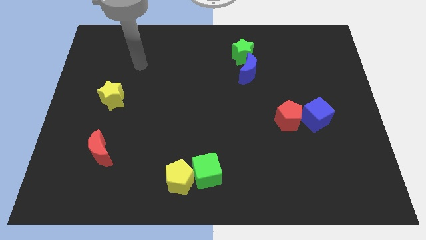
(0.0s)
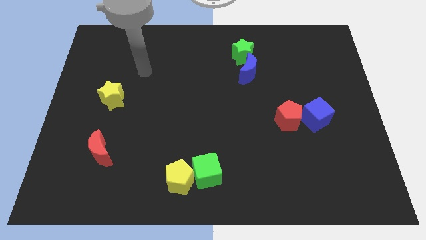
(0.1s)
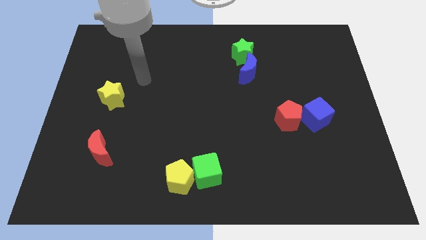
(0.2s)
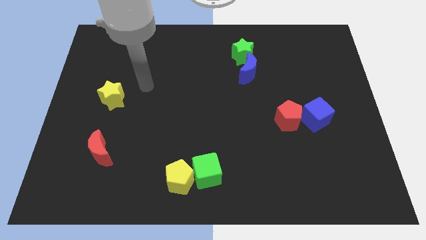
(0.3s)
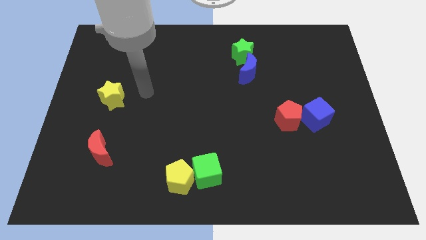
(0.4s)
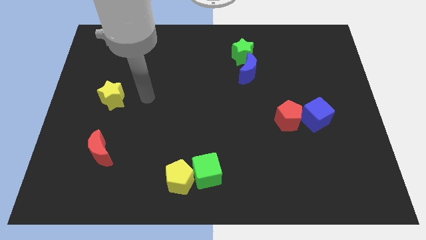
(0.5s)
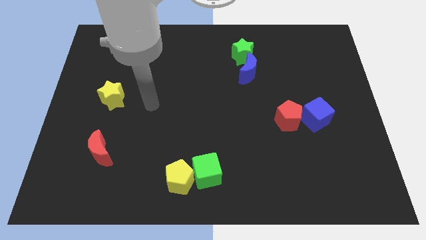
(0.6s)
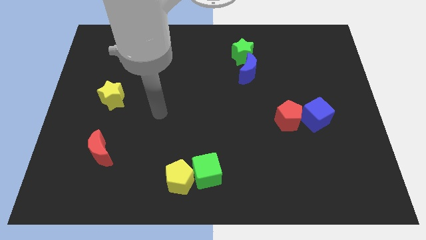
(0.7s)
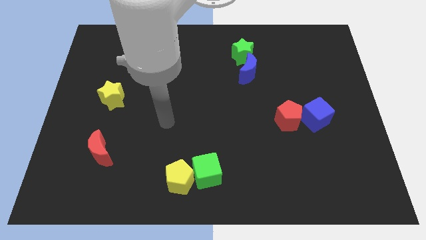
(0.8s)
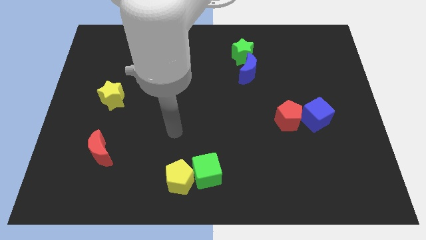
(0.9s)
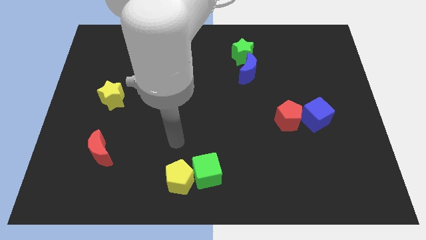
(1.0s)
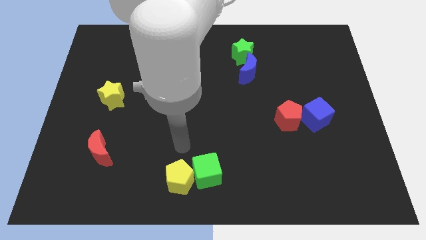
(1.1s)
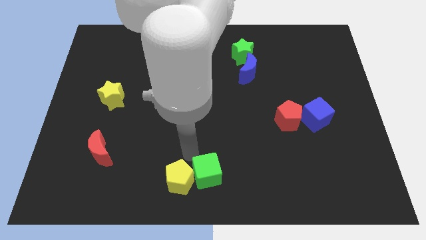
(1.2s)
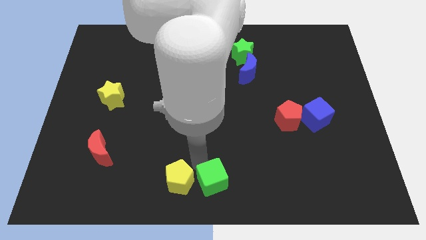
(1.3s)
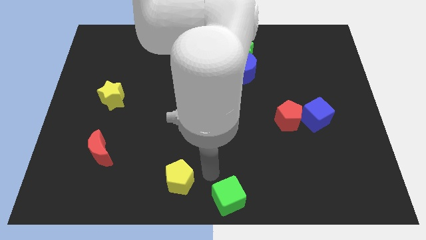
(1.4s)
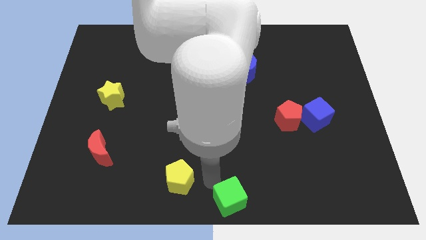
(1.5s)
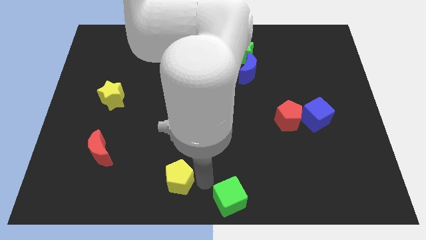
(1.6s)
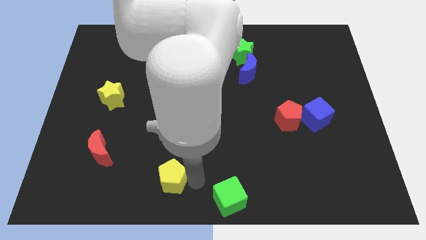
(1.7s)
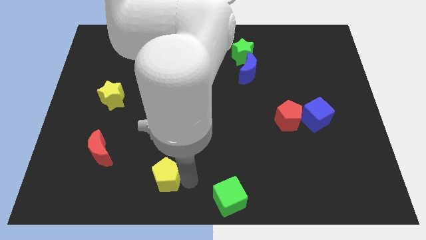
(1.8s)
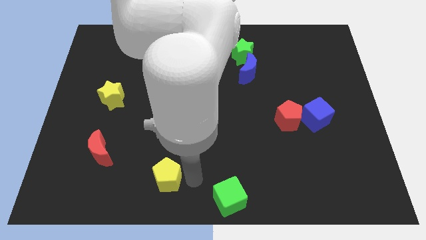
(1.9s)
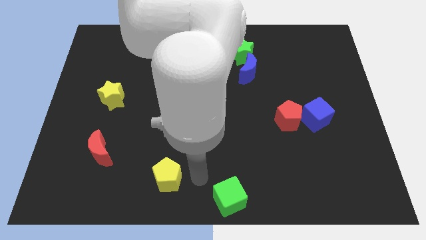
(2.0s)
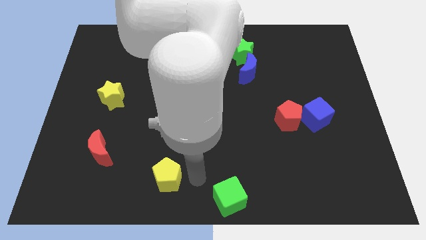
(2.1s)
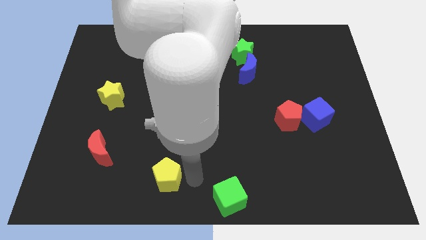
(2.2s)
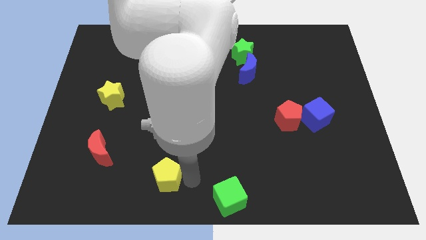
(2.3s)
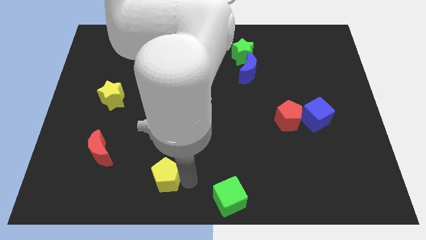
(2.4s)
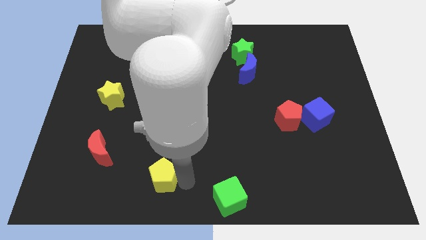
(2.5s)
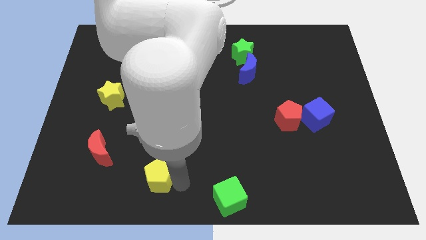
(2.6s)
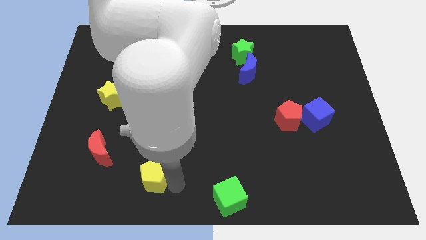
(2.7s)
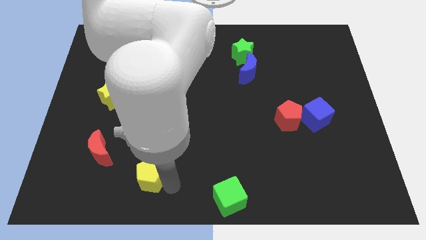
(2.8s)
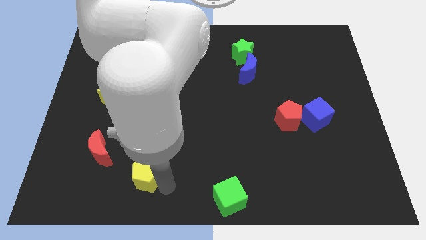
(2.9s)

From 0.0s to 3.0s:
slide the yellow pentagon to the left a little

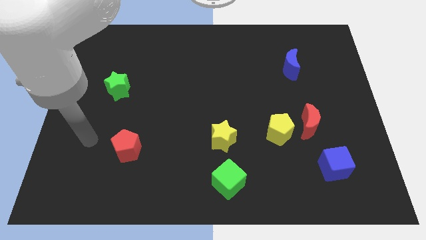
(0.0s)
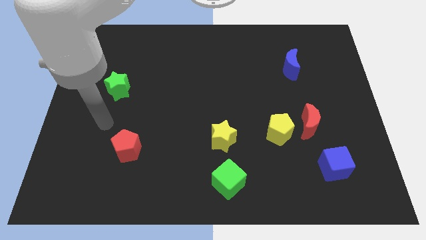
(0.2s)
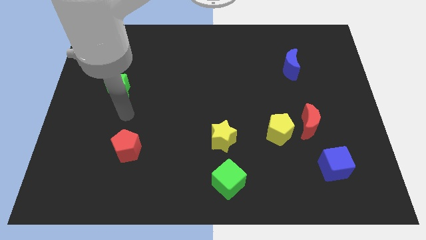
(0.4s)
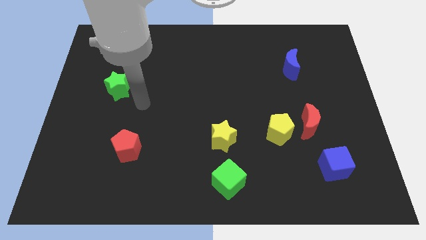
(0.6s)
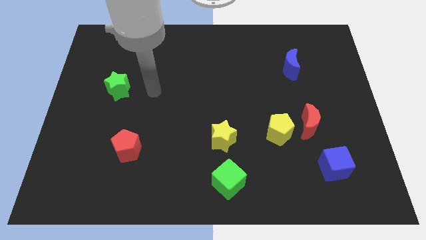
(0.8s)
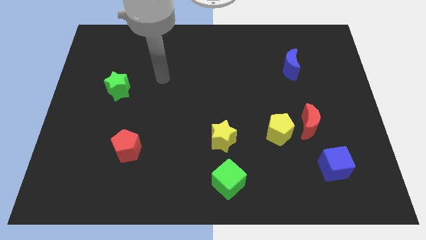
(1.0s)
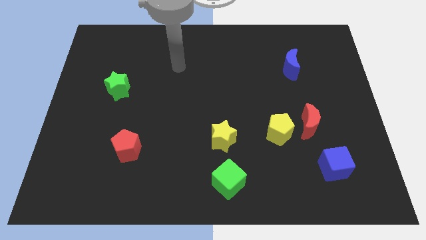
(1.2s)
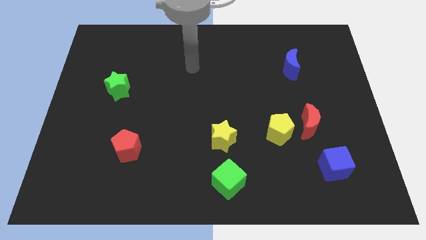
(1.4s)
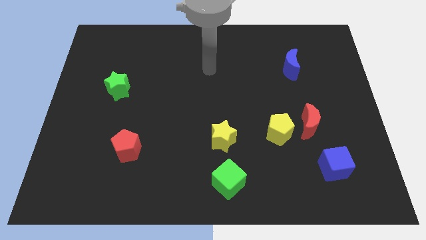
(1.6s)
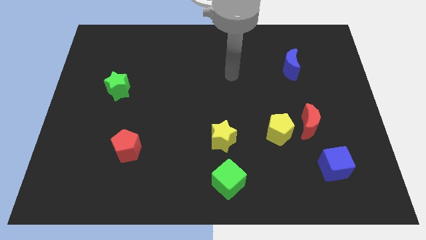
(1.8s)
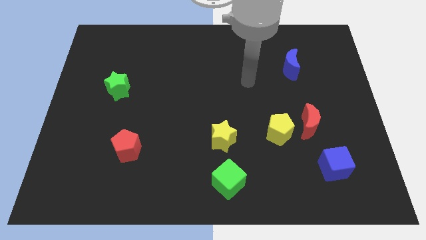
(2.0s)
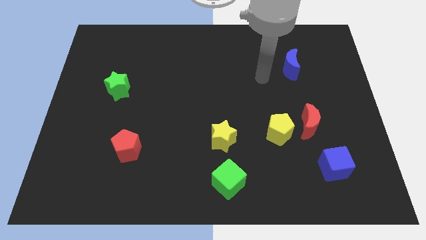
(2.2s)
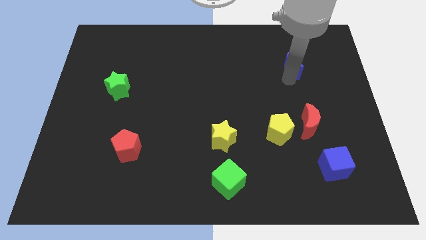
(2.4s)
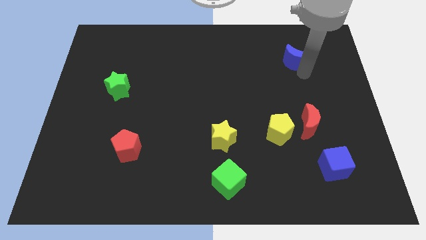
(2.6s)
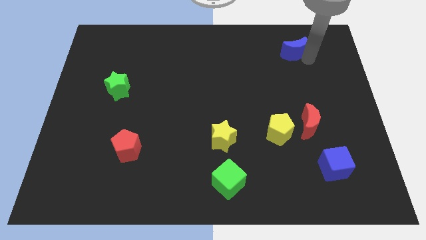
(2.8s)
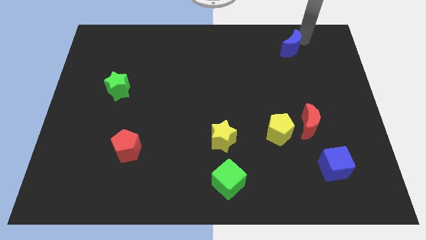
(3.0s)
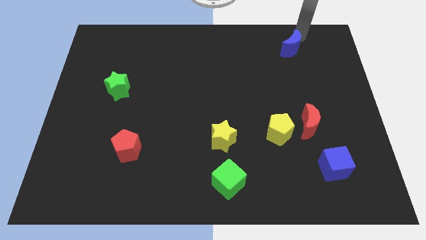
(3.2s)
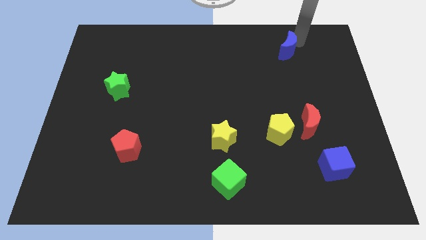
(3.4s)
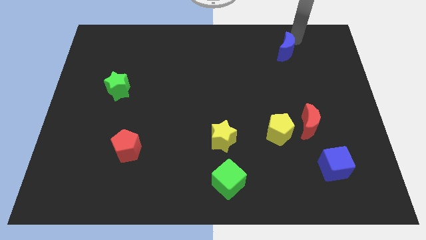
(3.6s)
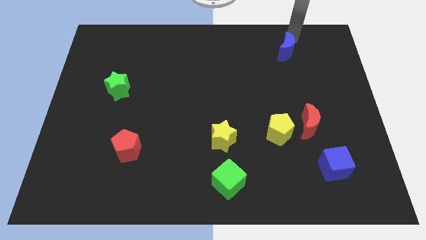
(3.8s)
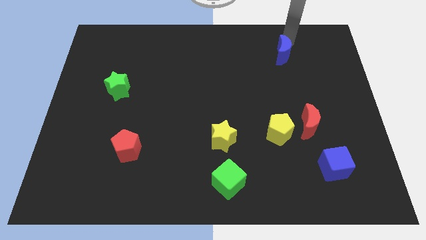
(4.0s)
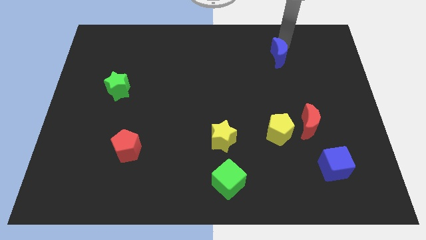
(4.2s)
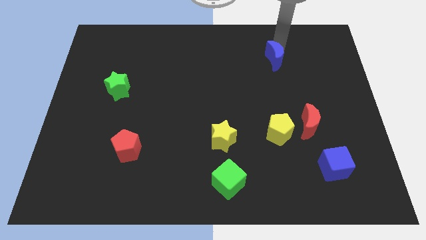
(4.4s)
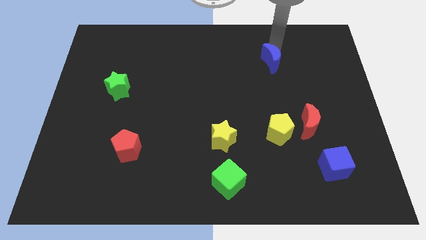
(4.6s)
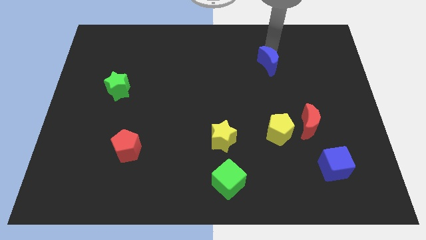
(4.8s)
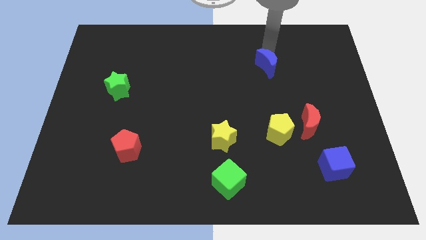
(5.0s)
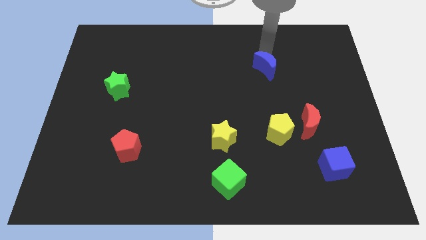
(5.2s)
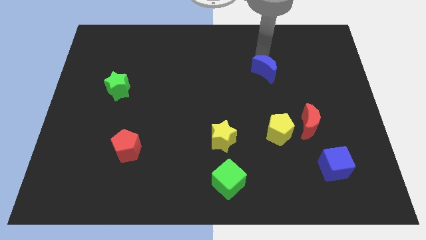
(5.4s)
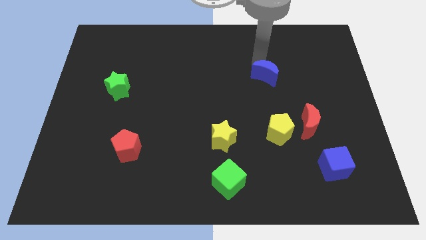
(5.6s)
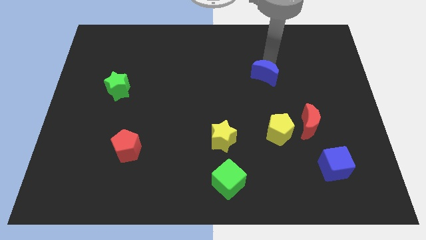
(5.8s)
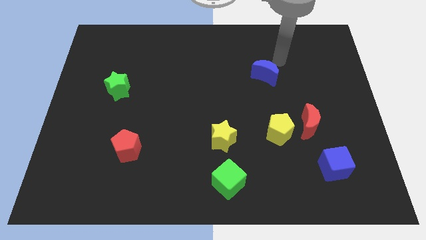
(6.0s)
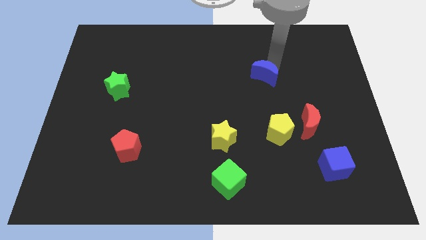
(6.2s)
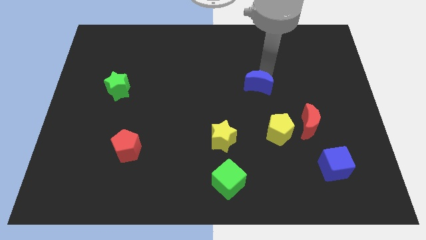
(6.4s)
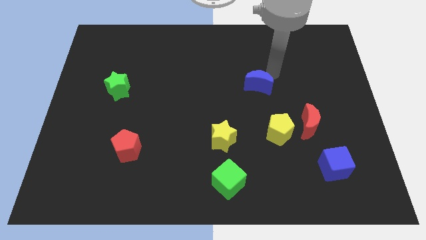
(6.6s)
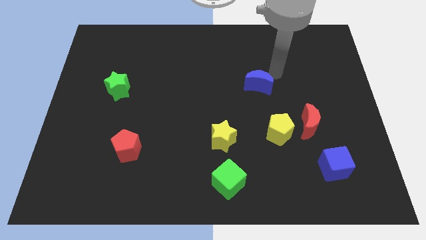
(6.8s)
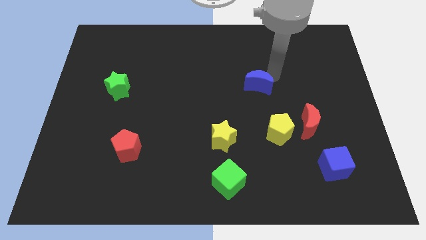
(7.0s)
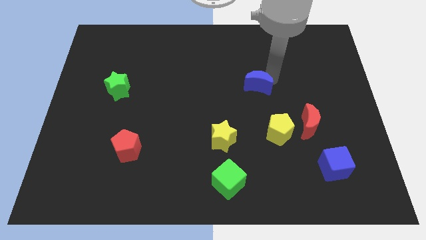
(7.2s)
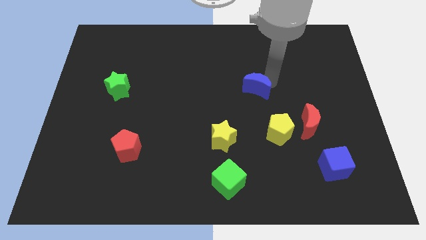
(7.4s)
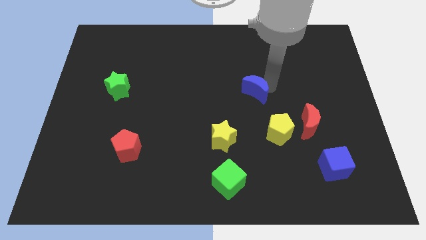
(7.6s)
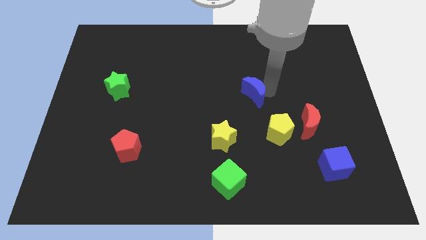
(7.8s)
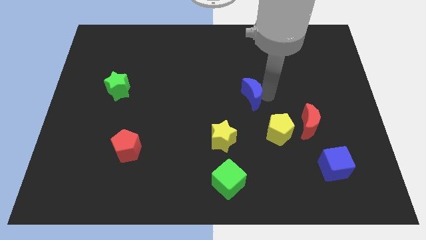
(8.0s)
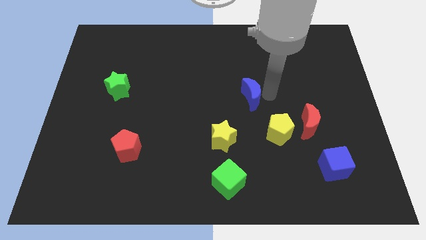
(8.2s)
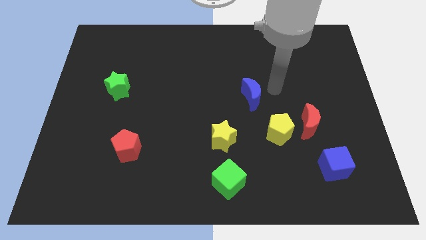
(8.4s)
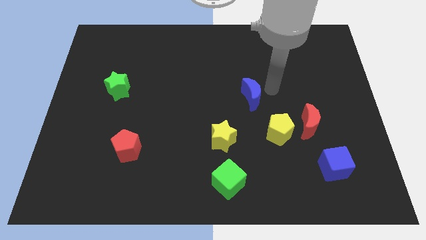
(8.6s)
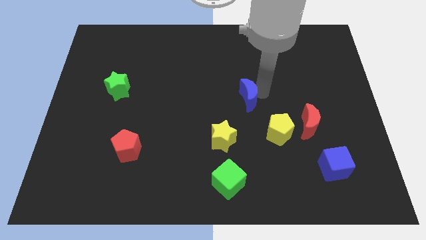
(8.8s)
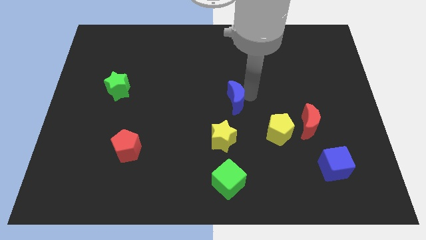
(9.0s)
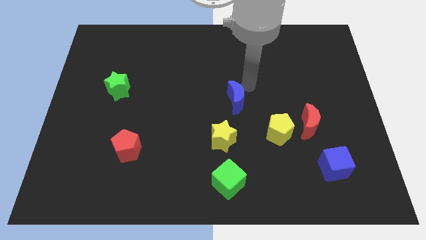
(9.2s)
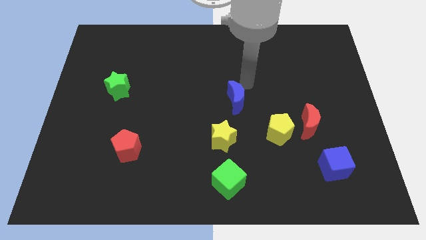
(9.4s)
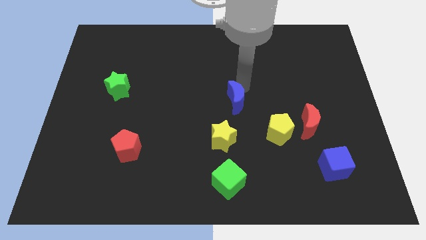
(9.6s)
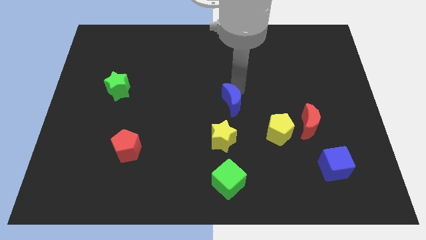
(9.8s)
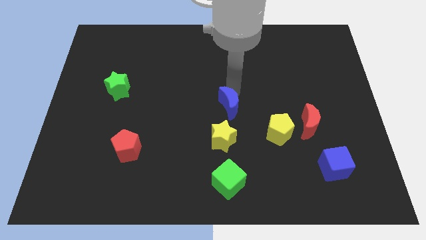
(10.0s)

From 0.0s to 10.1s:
move the blue moon down and left

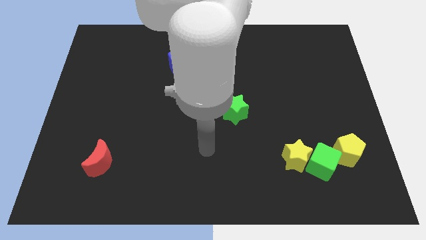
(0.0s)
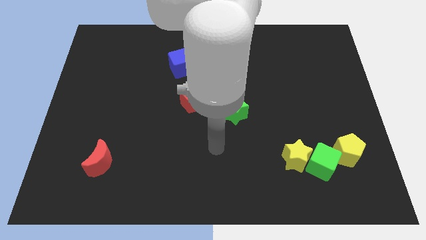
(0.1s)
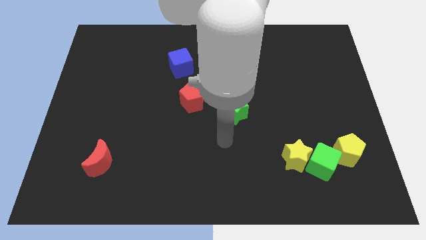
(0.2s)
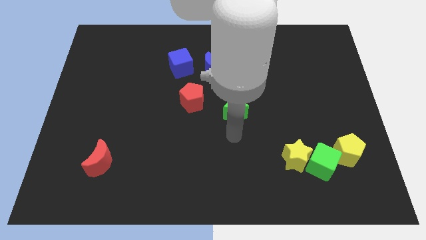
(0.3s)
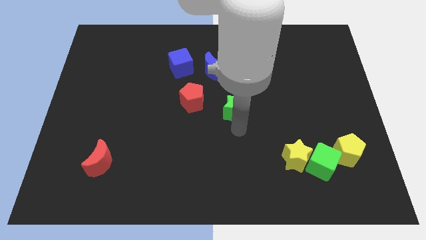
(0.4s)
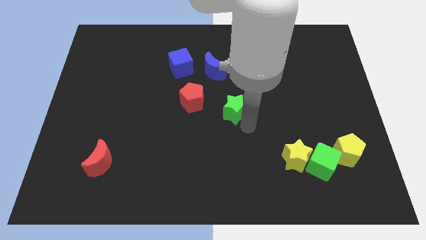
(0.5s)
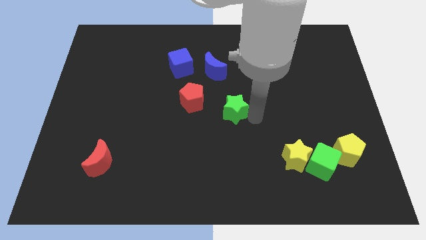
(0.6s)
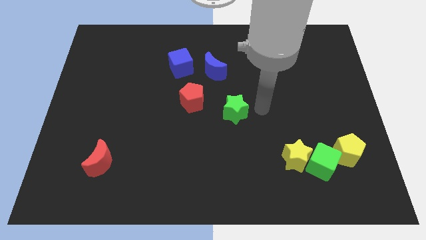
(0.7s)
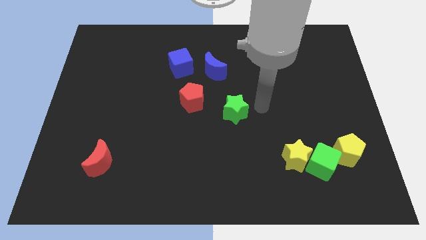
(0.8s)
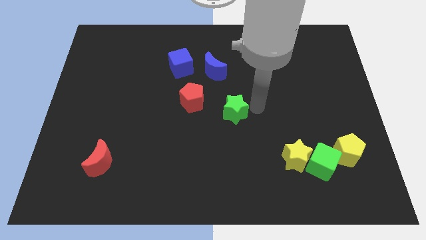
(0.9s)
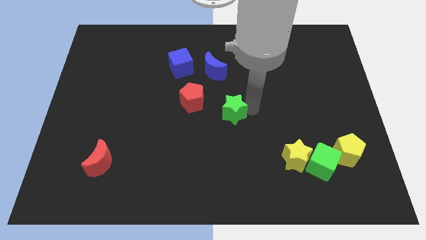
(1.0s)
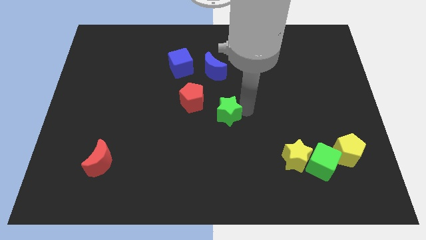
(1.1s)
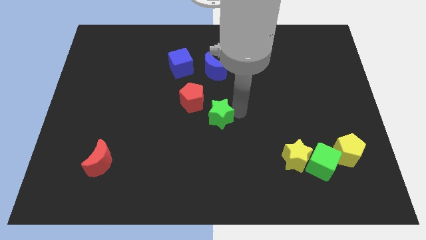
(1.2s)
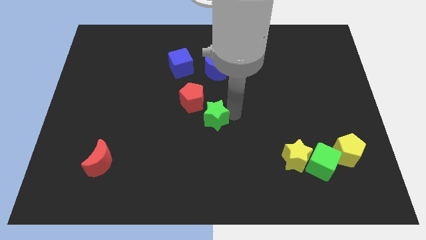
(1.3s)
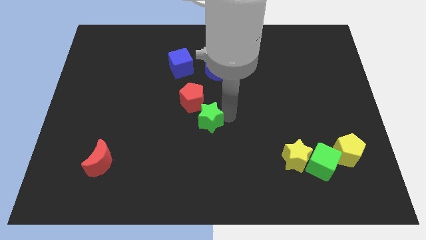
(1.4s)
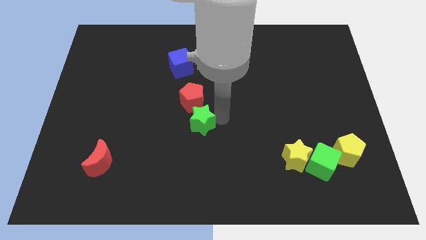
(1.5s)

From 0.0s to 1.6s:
move the green star to the left somewhat
